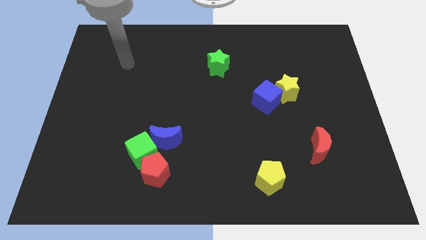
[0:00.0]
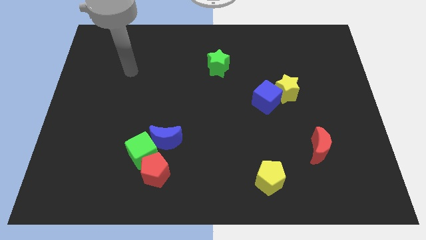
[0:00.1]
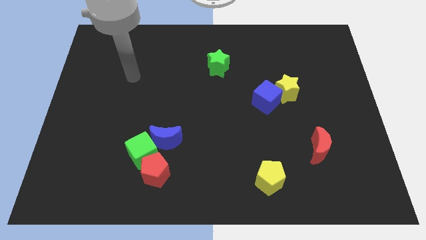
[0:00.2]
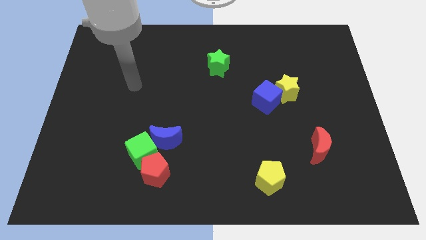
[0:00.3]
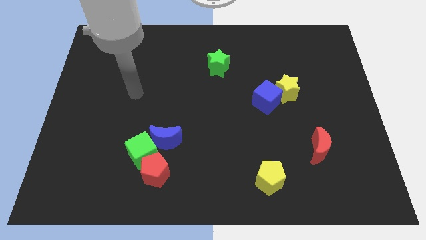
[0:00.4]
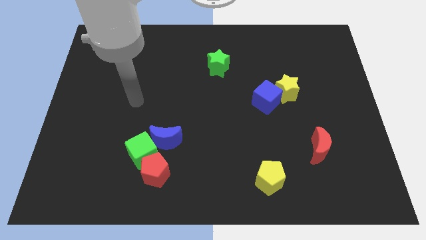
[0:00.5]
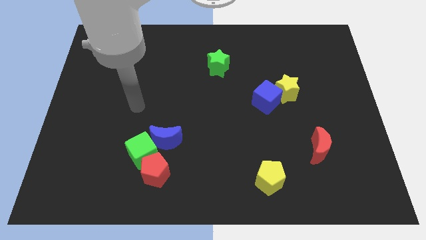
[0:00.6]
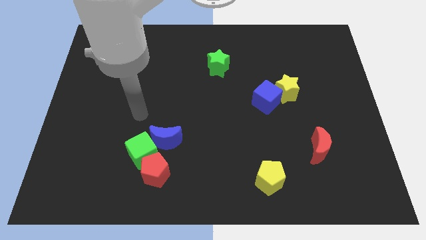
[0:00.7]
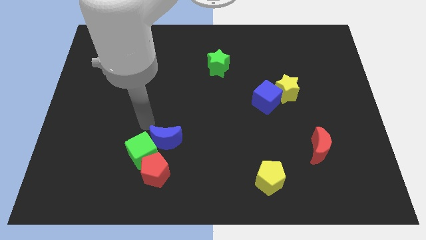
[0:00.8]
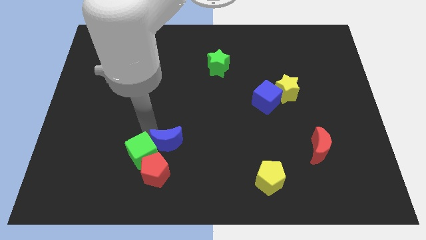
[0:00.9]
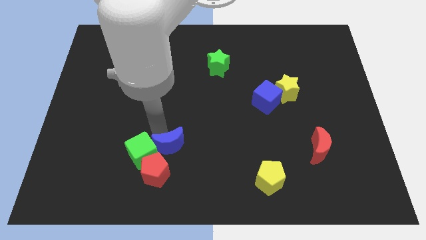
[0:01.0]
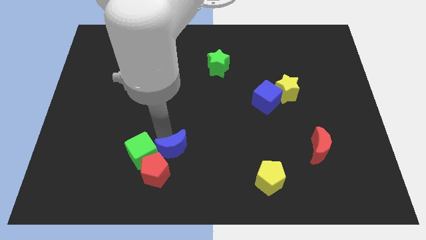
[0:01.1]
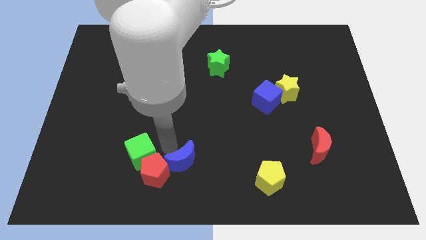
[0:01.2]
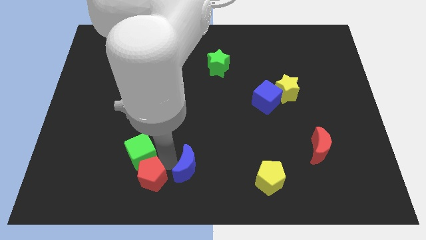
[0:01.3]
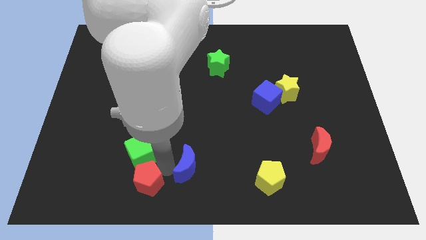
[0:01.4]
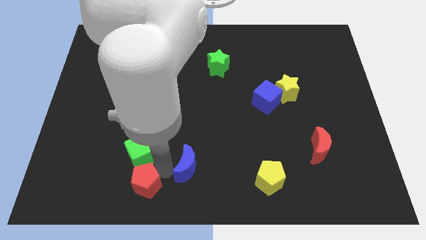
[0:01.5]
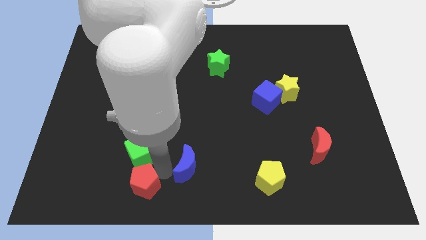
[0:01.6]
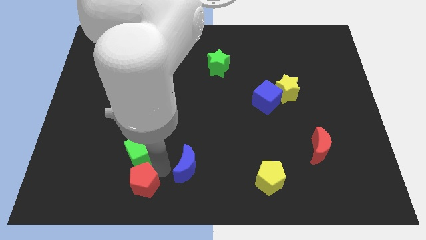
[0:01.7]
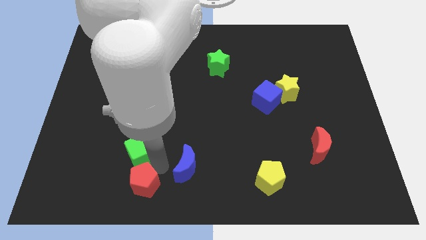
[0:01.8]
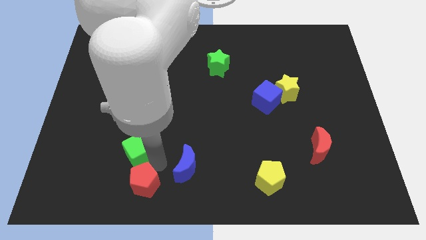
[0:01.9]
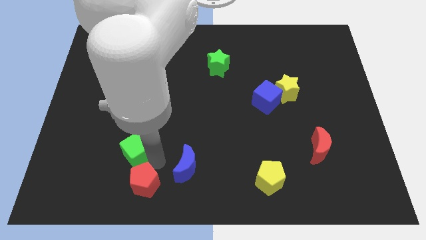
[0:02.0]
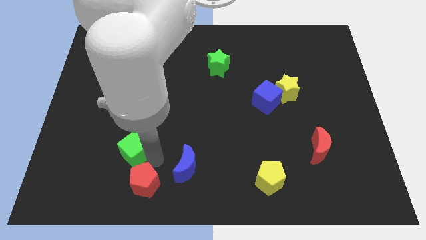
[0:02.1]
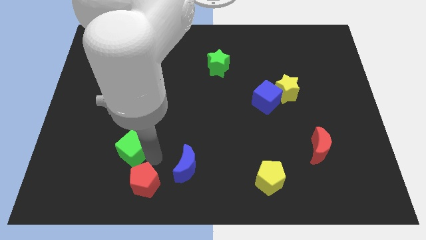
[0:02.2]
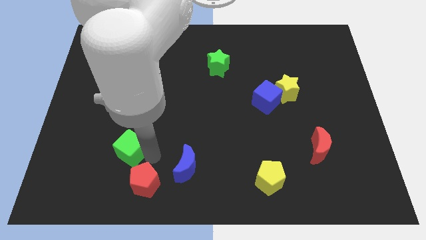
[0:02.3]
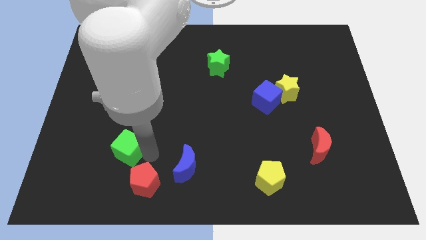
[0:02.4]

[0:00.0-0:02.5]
move the green cube away from the red pentagon and blue moon

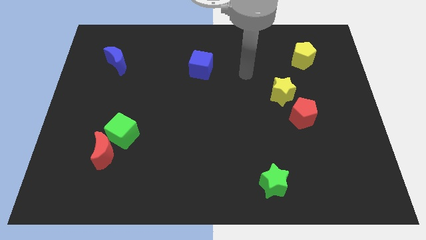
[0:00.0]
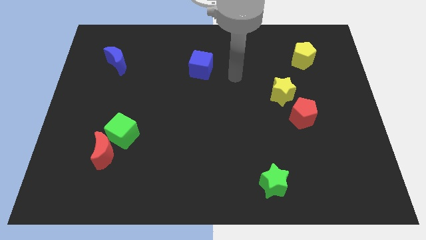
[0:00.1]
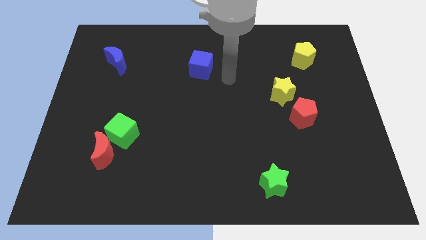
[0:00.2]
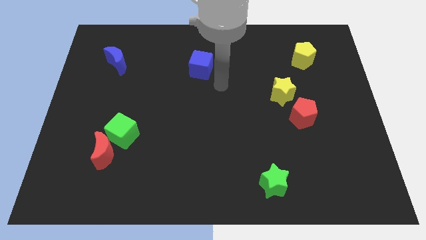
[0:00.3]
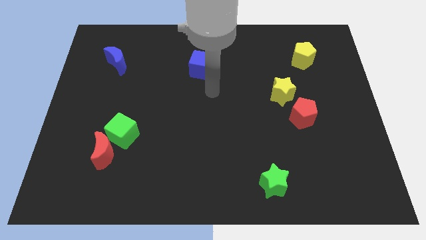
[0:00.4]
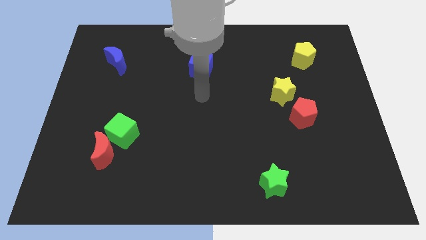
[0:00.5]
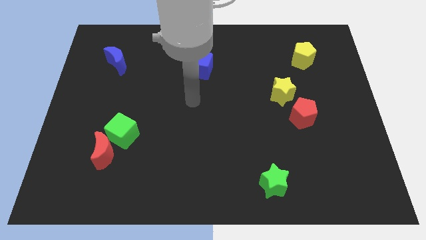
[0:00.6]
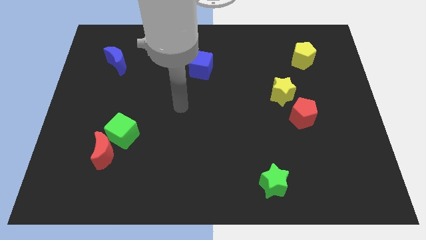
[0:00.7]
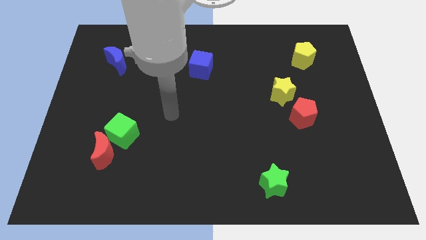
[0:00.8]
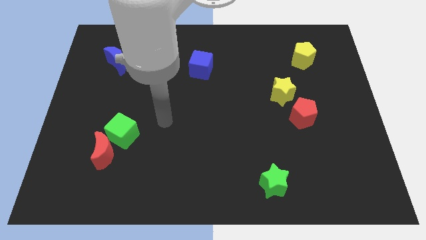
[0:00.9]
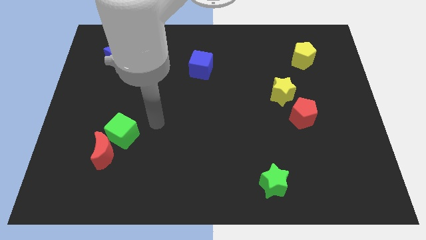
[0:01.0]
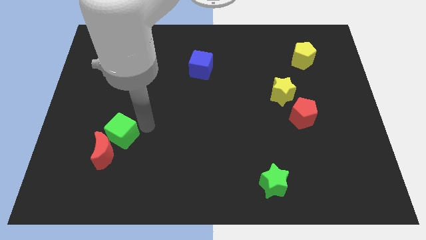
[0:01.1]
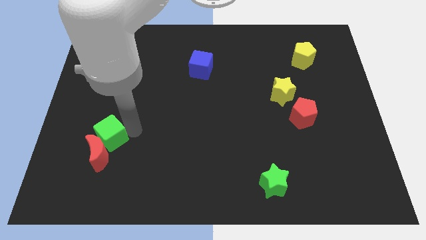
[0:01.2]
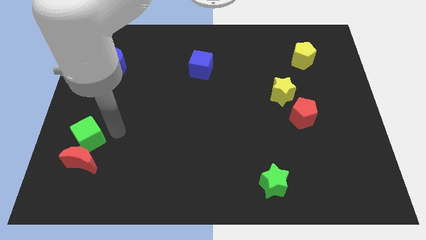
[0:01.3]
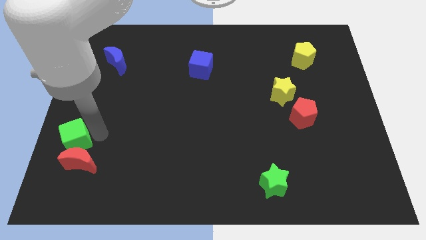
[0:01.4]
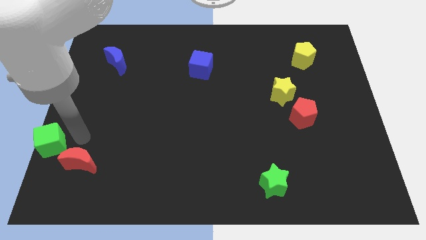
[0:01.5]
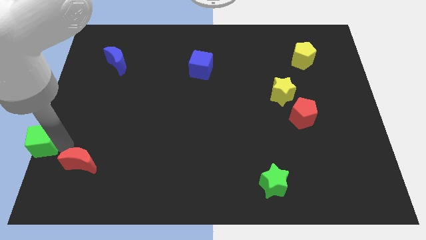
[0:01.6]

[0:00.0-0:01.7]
separate the red moon from the green cube

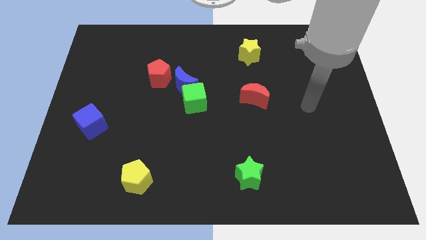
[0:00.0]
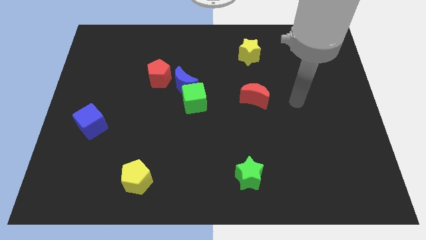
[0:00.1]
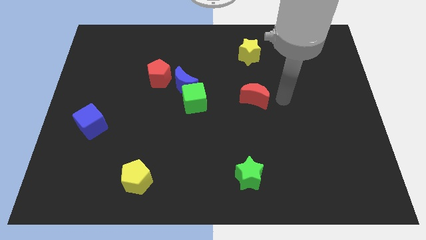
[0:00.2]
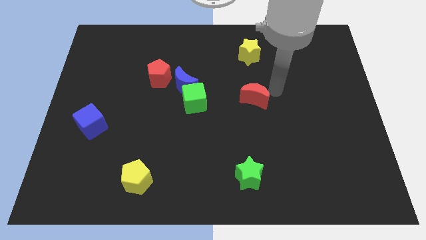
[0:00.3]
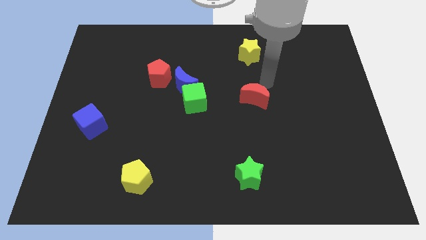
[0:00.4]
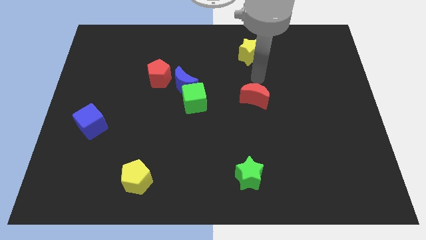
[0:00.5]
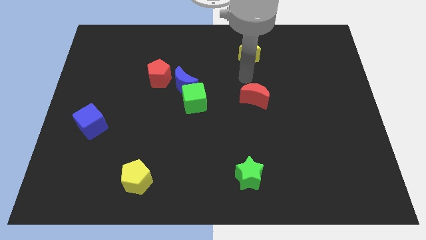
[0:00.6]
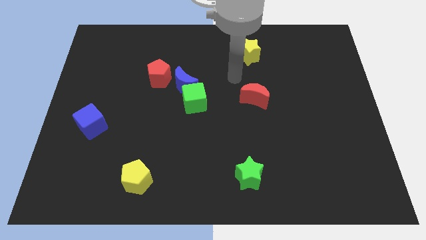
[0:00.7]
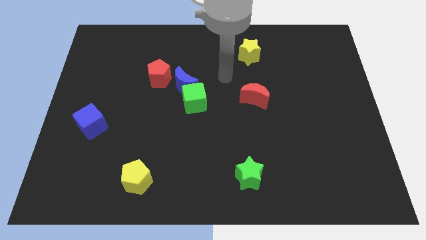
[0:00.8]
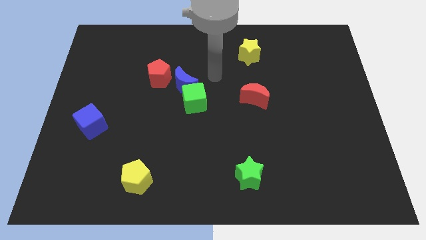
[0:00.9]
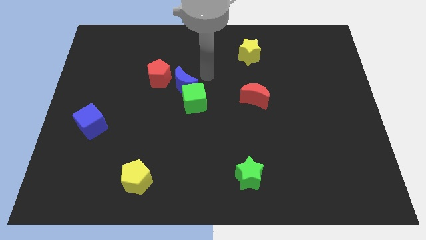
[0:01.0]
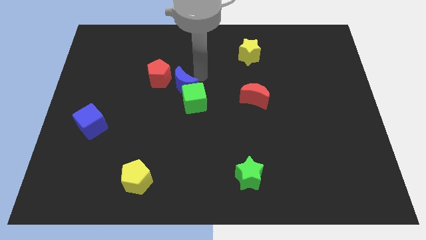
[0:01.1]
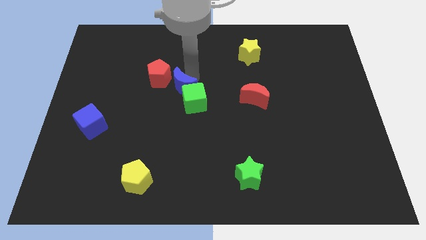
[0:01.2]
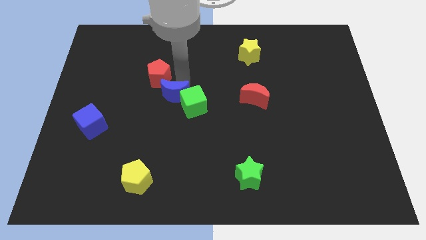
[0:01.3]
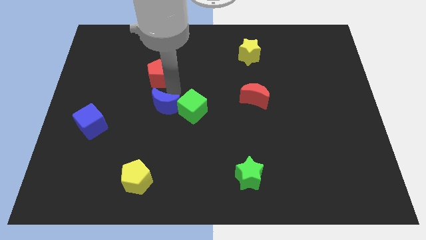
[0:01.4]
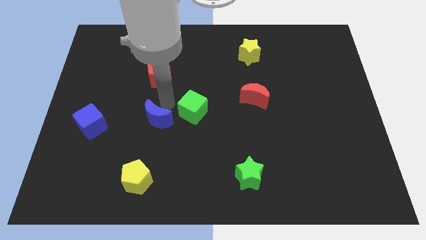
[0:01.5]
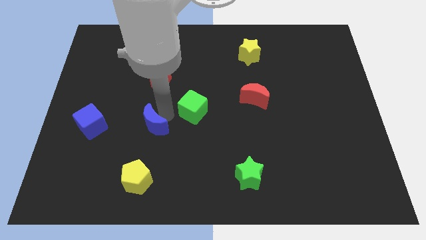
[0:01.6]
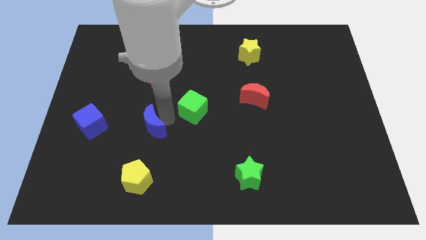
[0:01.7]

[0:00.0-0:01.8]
separate the green cube from the blue moon

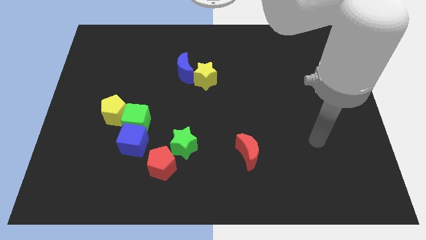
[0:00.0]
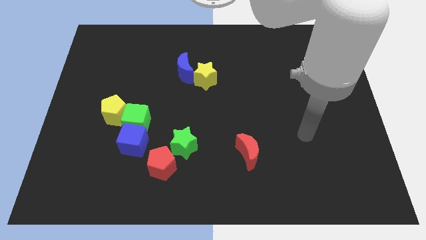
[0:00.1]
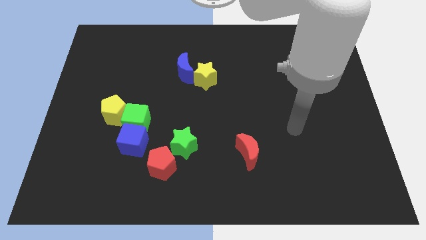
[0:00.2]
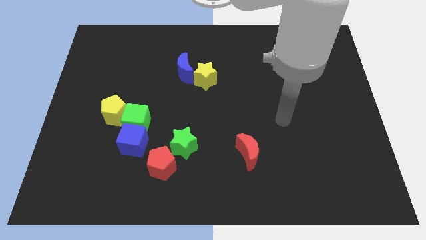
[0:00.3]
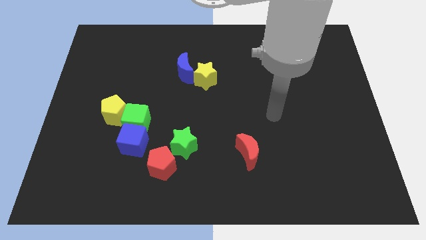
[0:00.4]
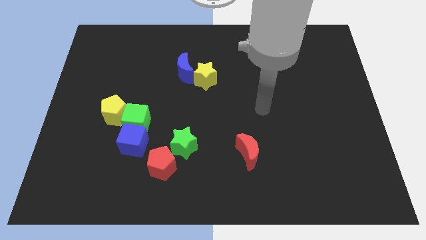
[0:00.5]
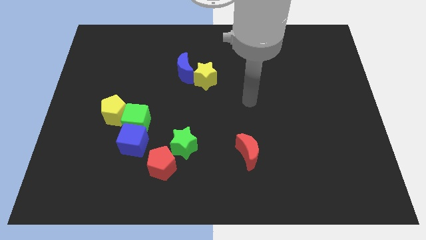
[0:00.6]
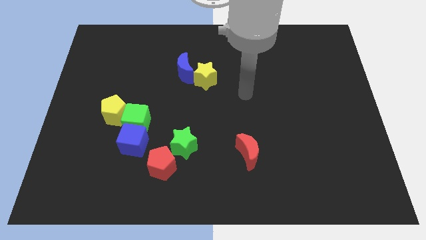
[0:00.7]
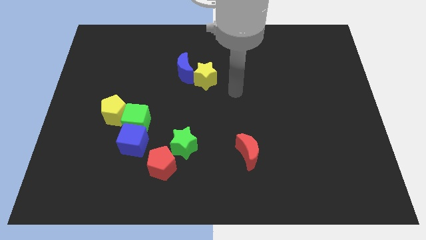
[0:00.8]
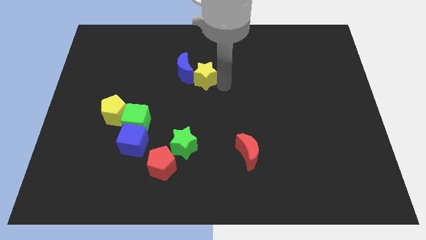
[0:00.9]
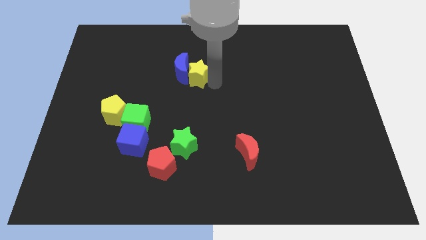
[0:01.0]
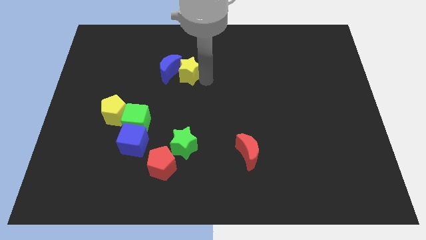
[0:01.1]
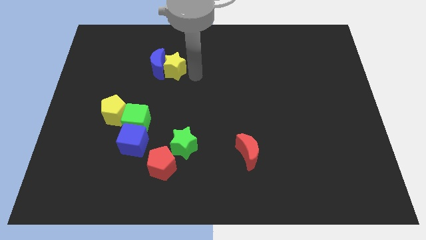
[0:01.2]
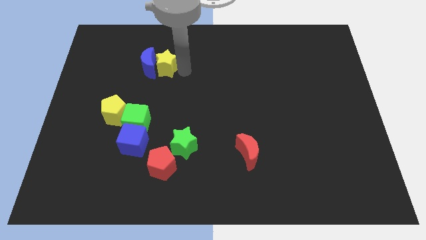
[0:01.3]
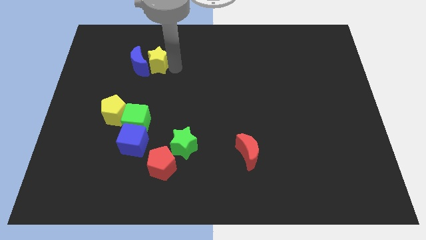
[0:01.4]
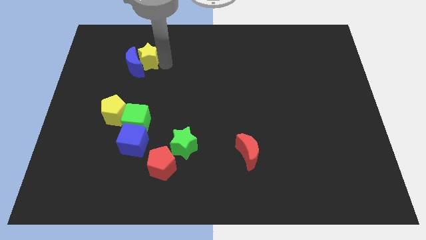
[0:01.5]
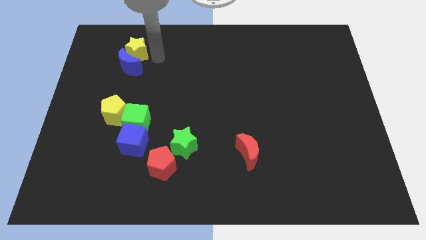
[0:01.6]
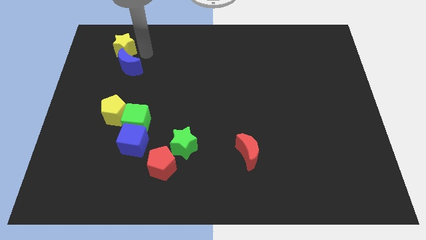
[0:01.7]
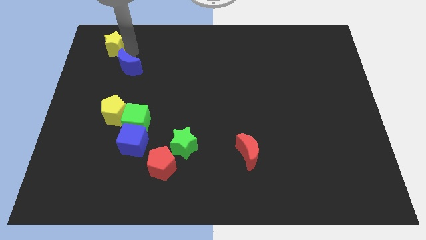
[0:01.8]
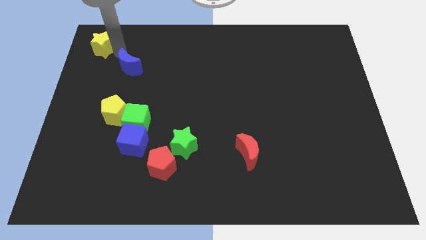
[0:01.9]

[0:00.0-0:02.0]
separate the blue moon from the yellow star

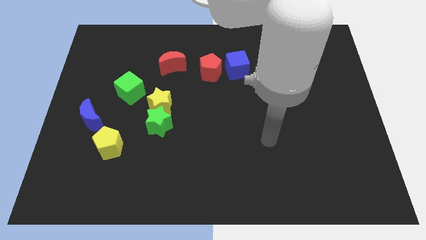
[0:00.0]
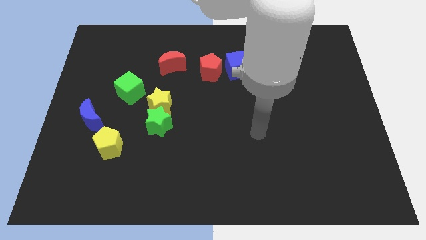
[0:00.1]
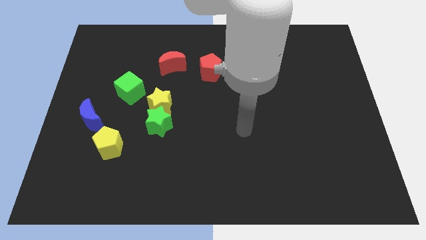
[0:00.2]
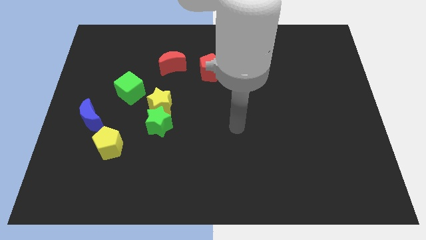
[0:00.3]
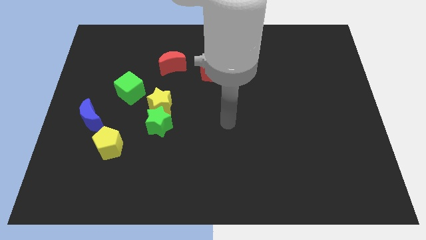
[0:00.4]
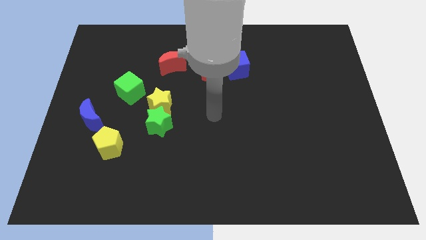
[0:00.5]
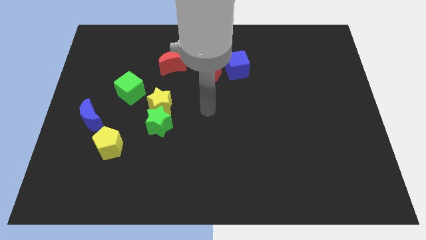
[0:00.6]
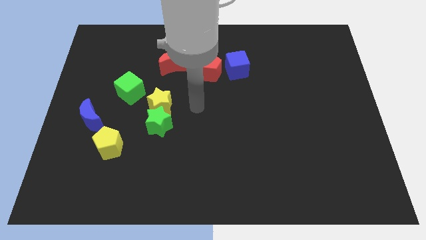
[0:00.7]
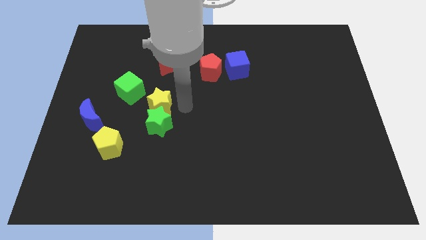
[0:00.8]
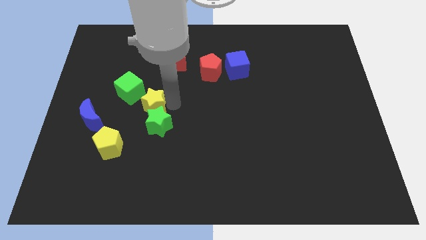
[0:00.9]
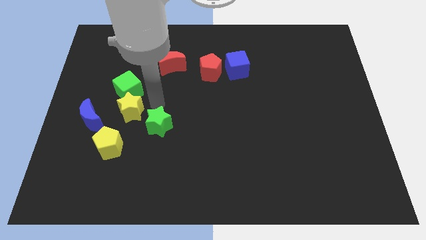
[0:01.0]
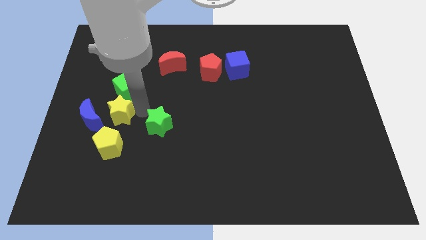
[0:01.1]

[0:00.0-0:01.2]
pull the green star apart from the yellow star

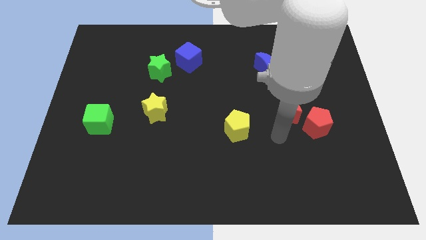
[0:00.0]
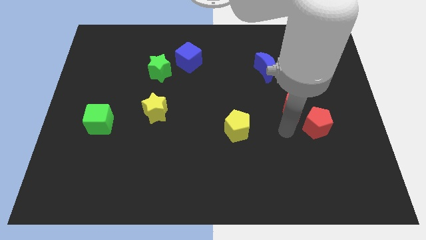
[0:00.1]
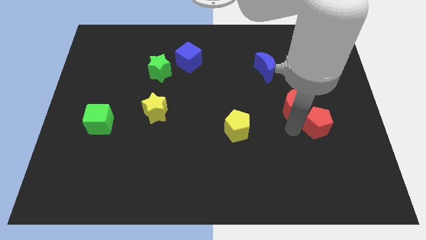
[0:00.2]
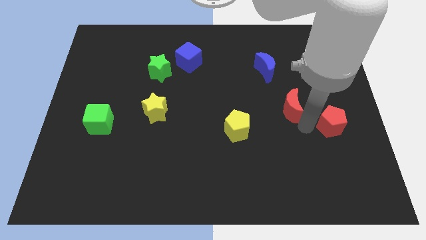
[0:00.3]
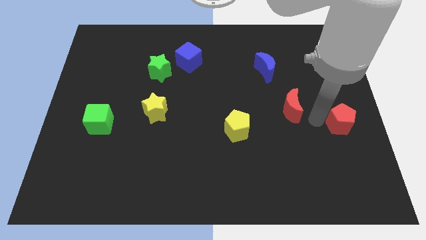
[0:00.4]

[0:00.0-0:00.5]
move the red moon away from the red pentagon
